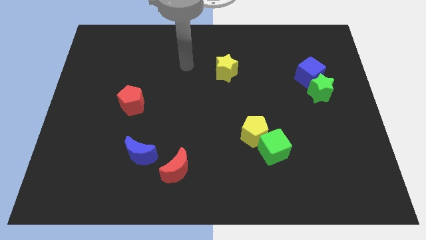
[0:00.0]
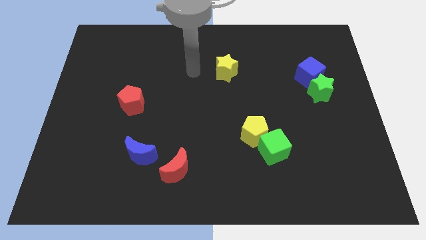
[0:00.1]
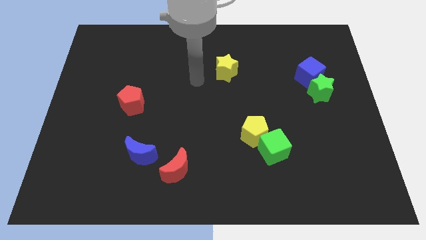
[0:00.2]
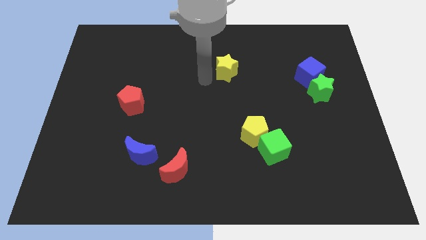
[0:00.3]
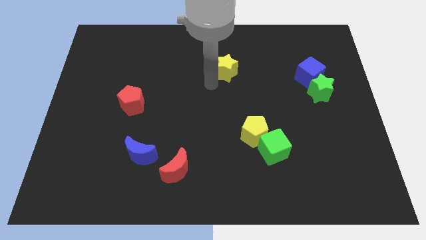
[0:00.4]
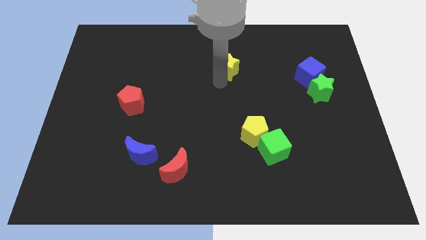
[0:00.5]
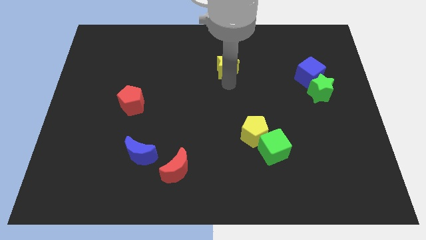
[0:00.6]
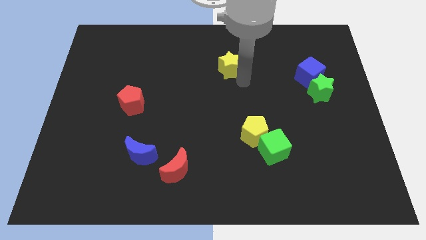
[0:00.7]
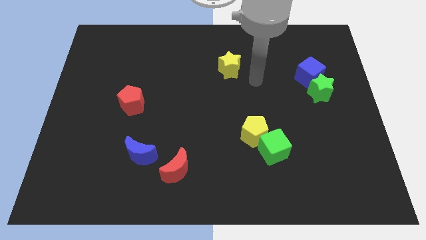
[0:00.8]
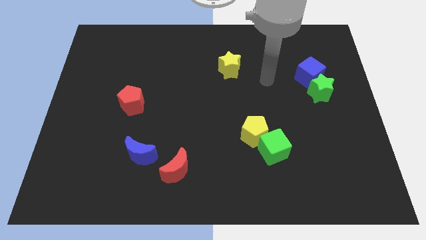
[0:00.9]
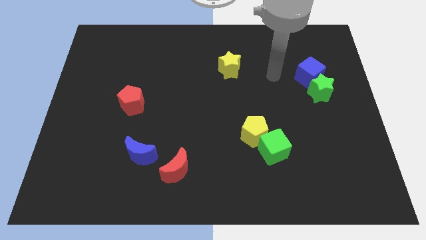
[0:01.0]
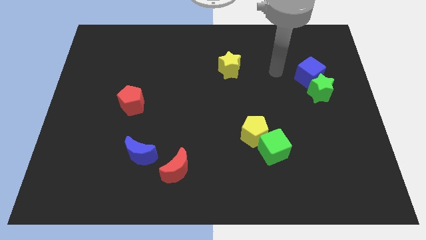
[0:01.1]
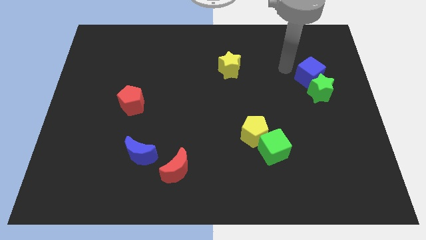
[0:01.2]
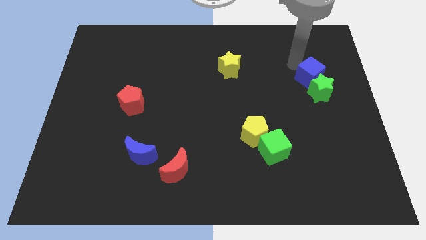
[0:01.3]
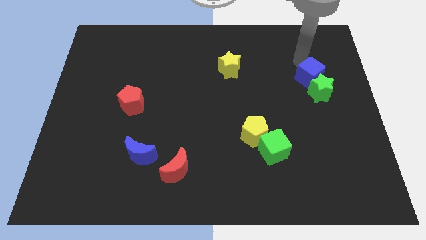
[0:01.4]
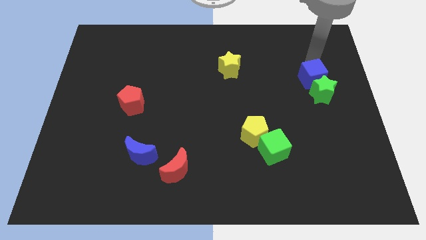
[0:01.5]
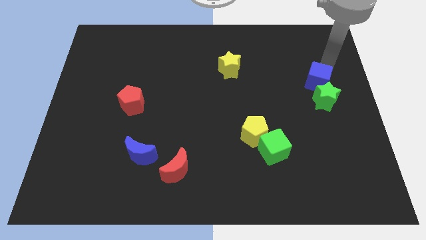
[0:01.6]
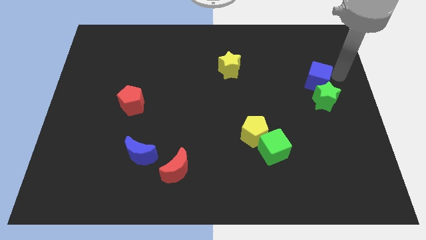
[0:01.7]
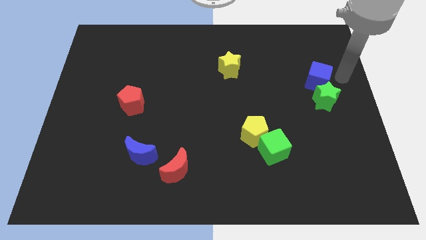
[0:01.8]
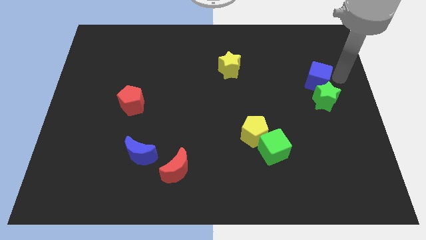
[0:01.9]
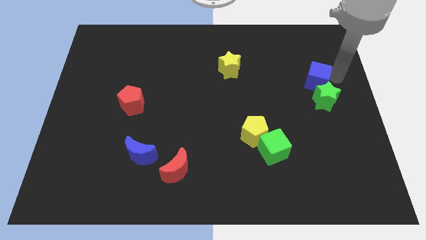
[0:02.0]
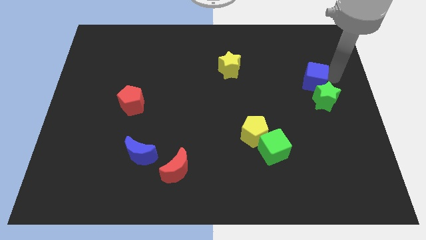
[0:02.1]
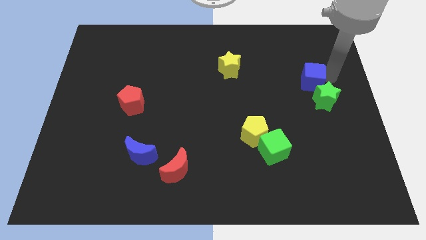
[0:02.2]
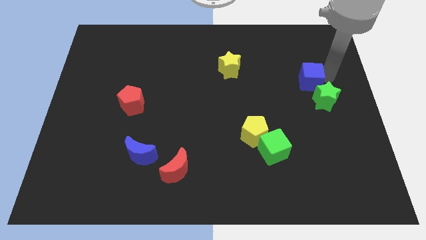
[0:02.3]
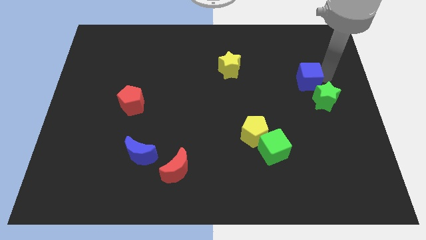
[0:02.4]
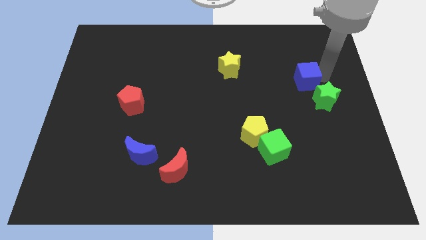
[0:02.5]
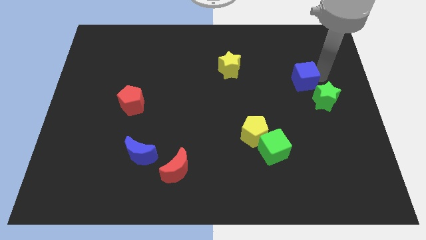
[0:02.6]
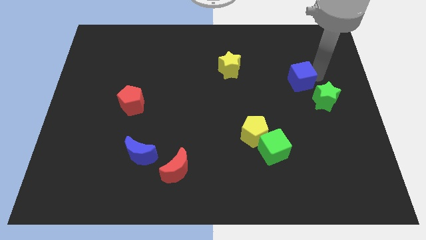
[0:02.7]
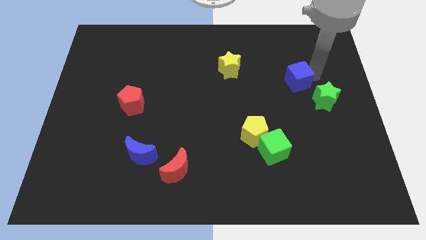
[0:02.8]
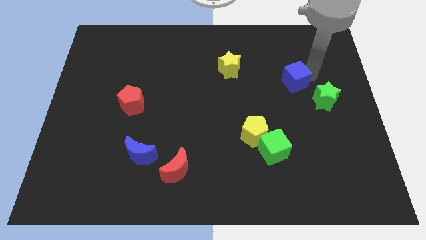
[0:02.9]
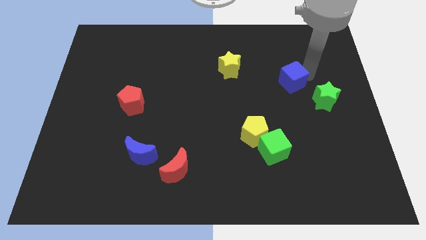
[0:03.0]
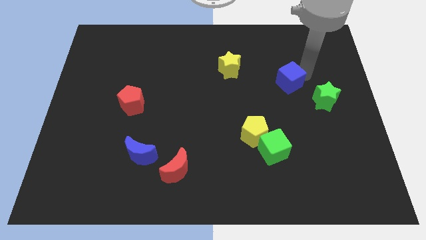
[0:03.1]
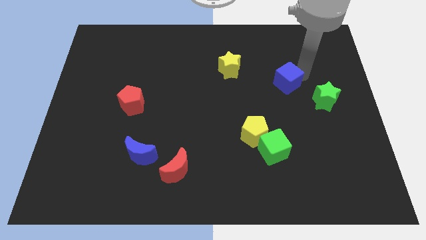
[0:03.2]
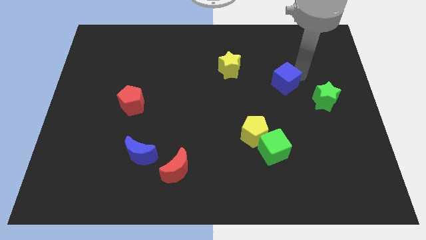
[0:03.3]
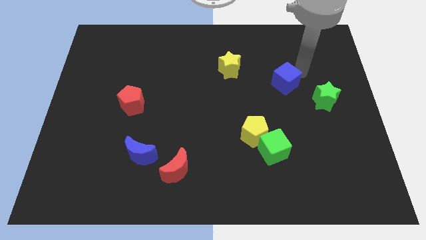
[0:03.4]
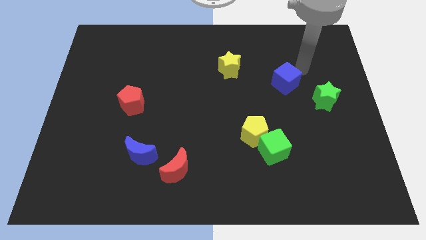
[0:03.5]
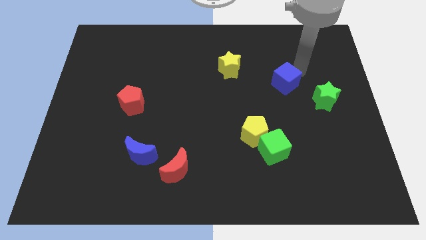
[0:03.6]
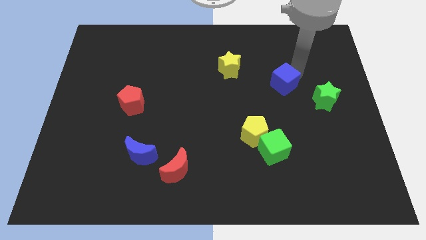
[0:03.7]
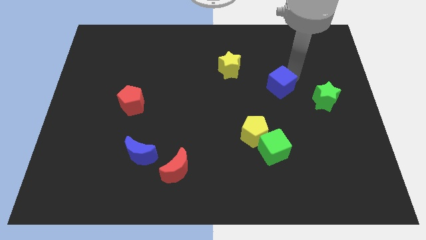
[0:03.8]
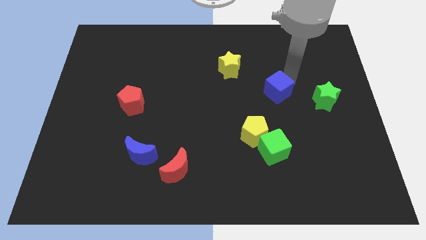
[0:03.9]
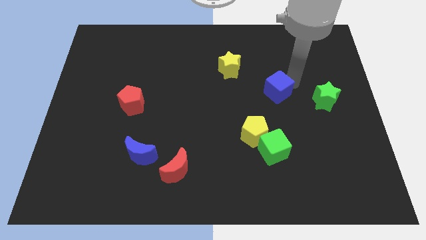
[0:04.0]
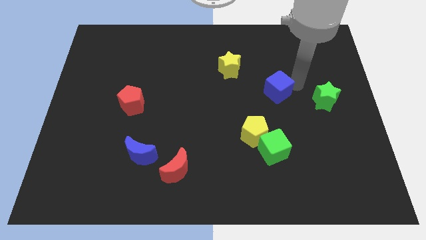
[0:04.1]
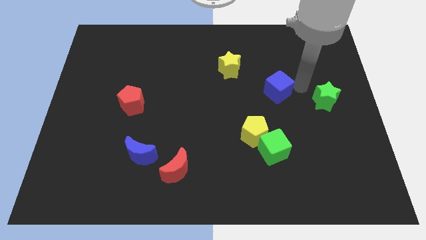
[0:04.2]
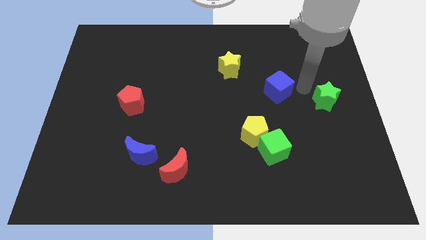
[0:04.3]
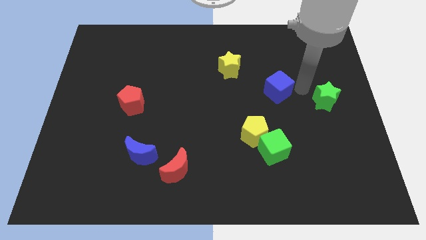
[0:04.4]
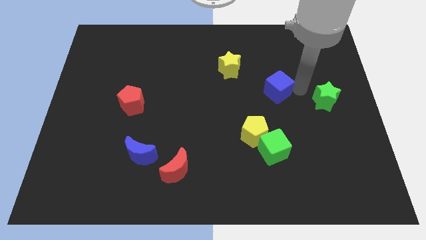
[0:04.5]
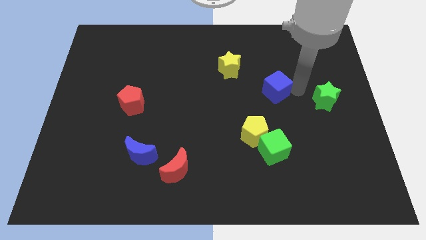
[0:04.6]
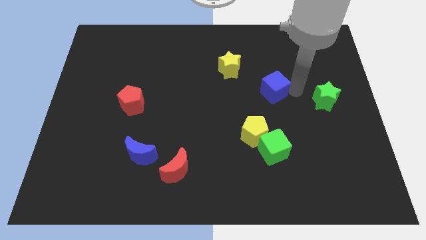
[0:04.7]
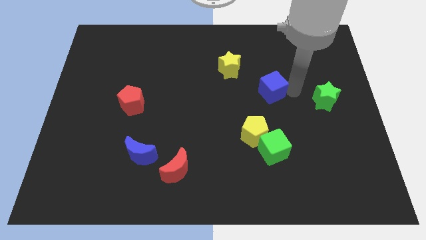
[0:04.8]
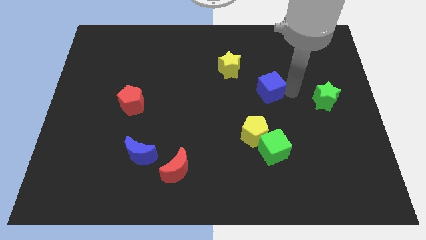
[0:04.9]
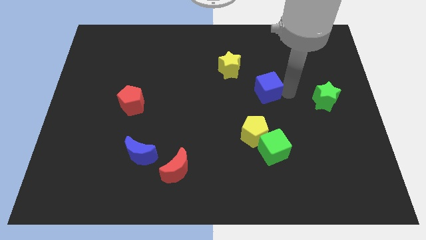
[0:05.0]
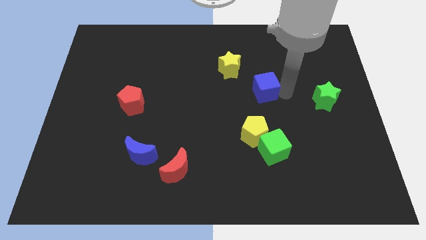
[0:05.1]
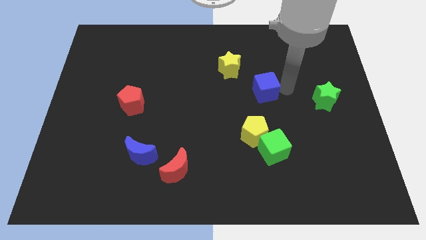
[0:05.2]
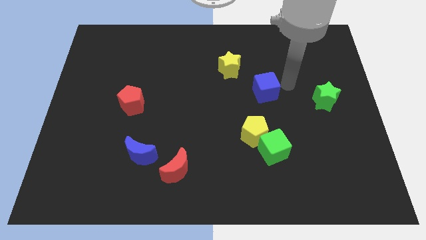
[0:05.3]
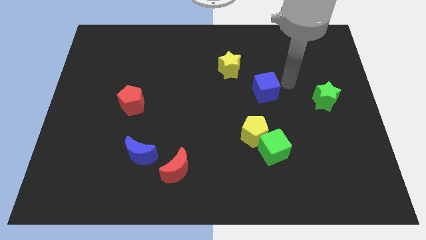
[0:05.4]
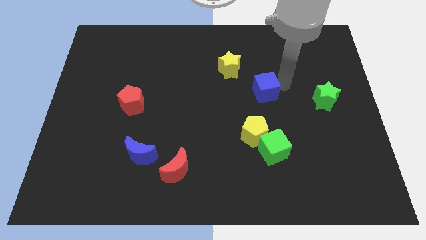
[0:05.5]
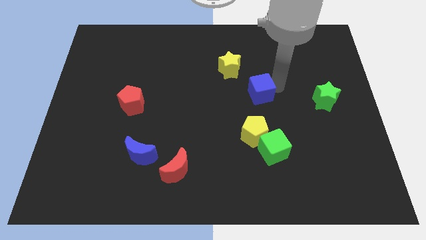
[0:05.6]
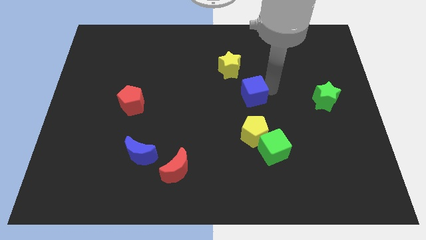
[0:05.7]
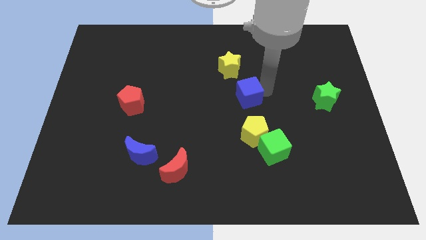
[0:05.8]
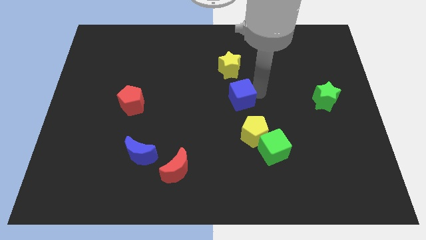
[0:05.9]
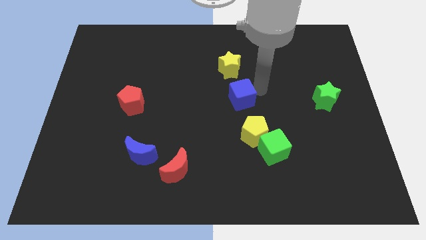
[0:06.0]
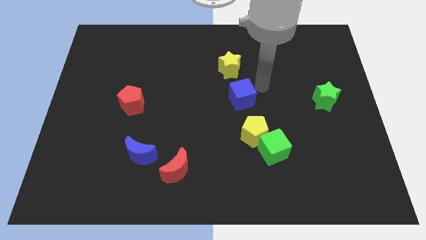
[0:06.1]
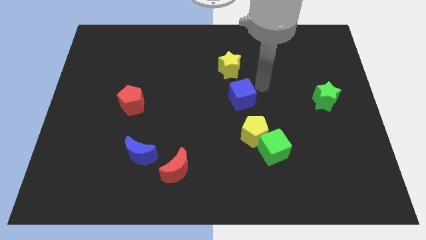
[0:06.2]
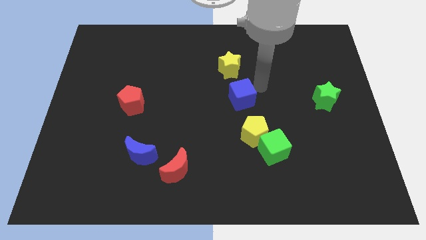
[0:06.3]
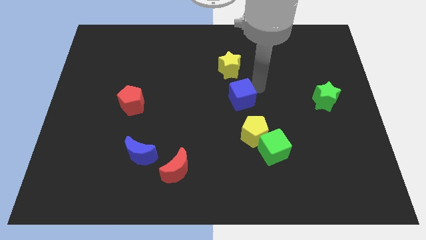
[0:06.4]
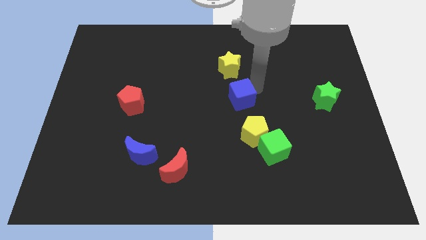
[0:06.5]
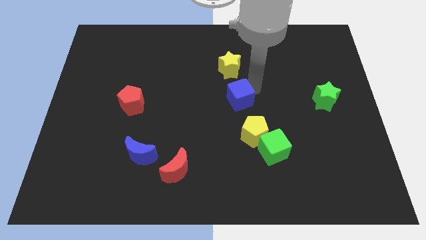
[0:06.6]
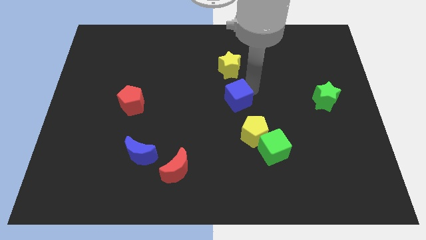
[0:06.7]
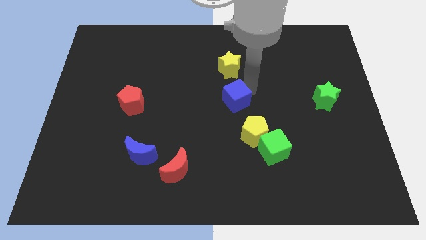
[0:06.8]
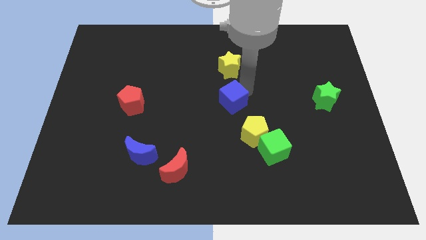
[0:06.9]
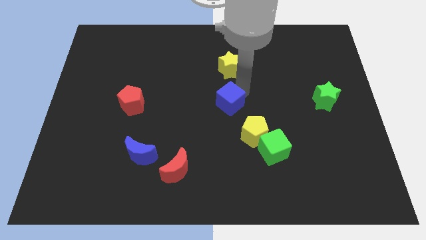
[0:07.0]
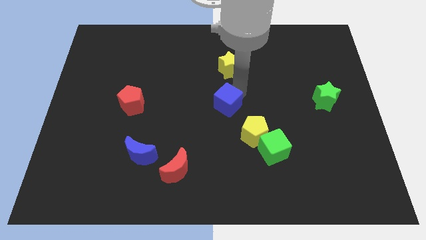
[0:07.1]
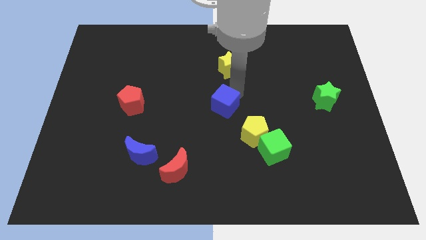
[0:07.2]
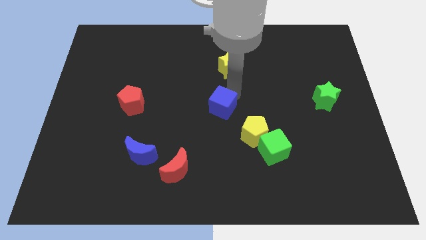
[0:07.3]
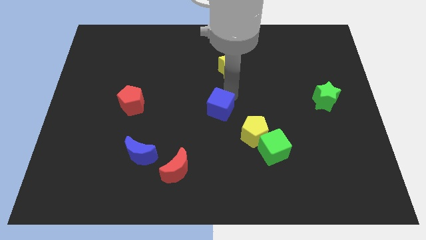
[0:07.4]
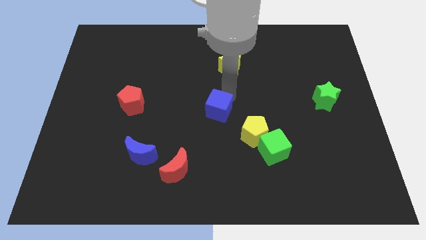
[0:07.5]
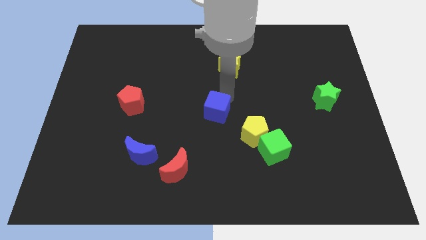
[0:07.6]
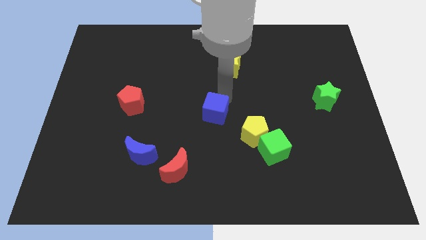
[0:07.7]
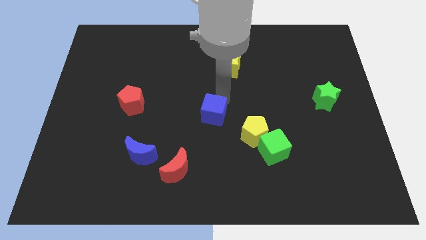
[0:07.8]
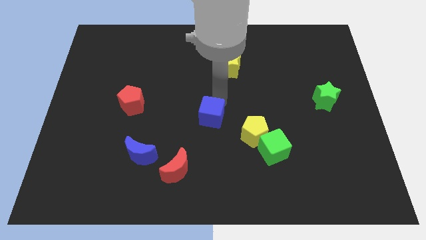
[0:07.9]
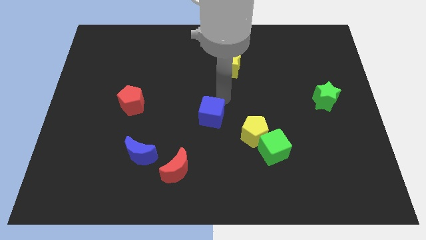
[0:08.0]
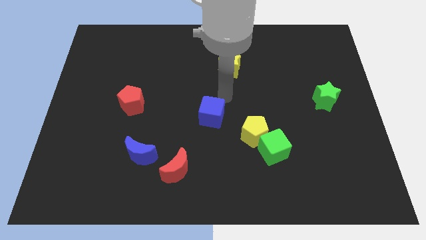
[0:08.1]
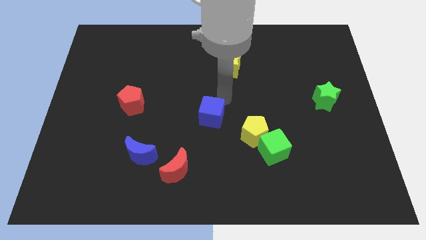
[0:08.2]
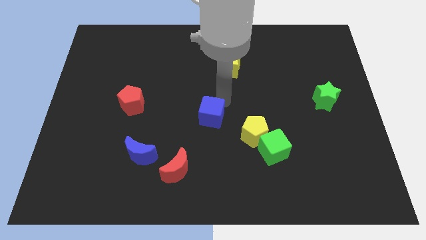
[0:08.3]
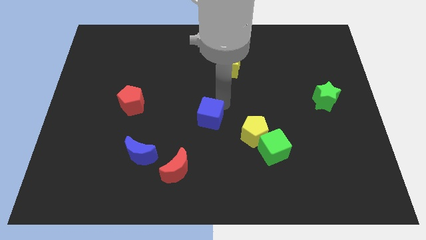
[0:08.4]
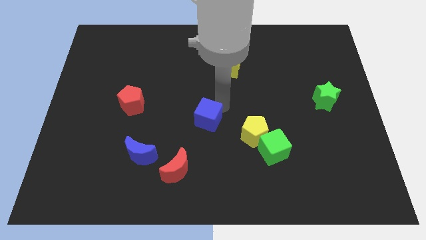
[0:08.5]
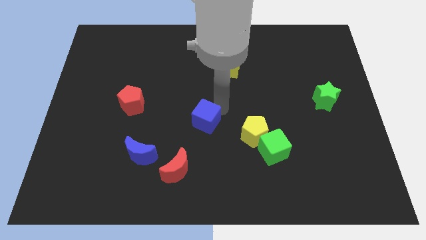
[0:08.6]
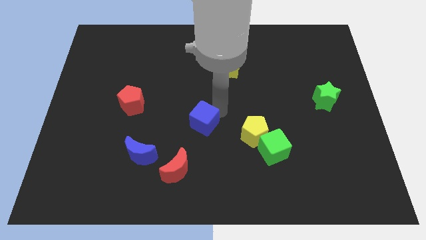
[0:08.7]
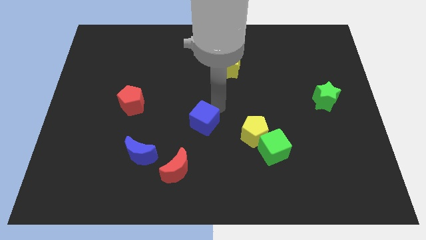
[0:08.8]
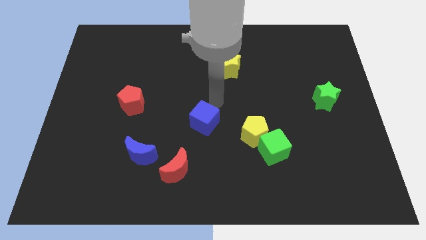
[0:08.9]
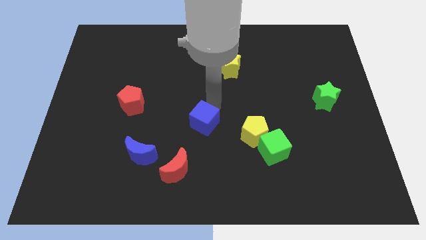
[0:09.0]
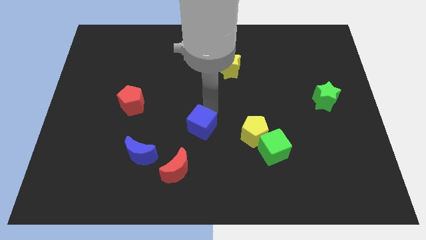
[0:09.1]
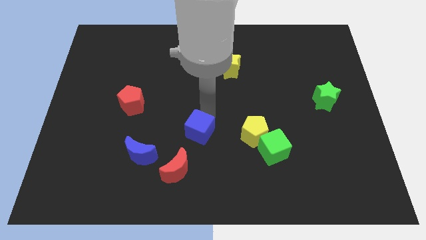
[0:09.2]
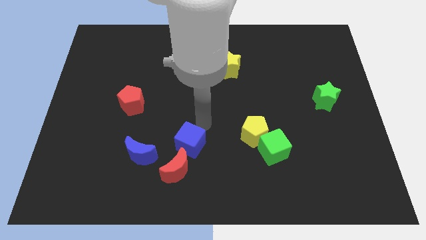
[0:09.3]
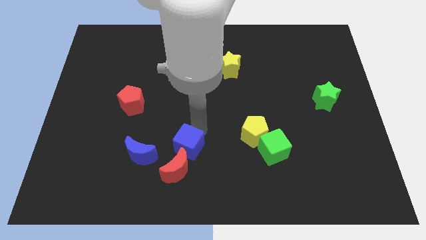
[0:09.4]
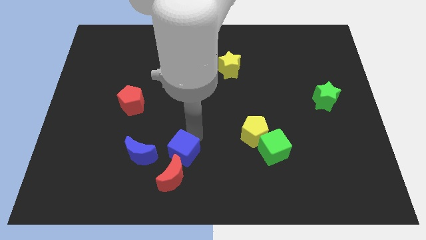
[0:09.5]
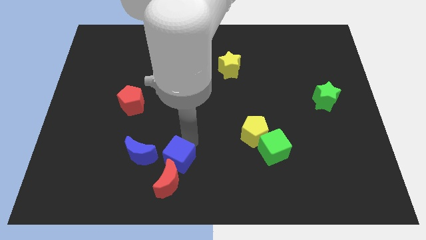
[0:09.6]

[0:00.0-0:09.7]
put the blue cube towards the red moon
